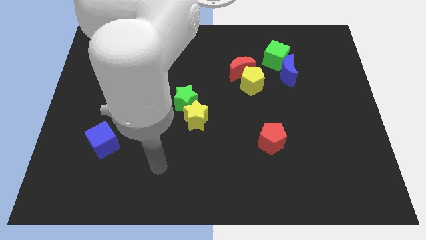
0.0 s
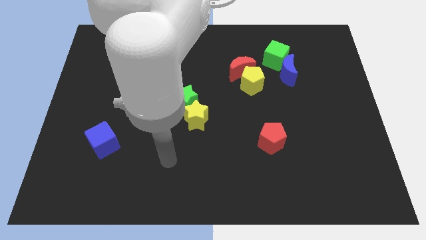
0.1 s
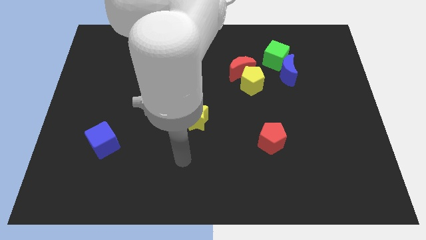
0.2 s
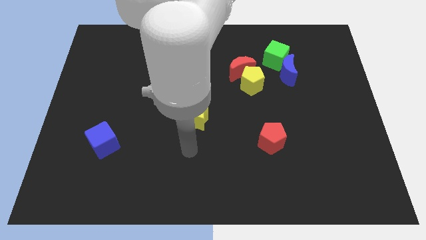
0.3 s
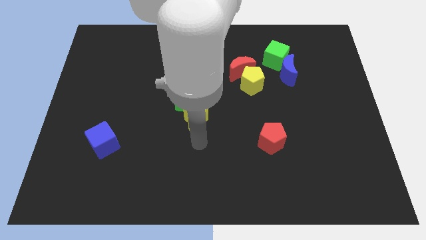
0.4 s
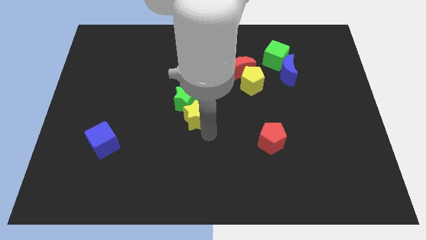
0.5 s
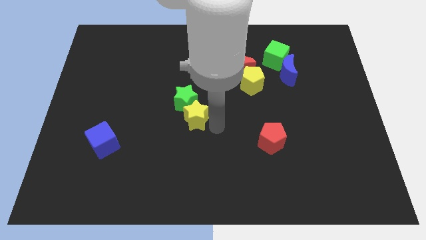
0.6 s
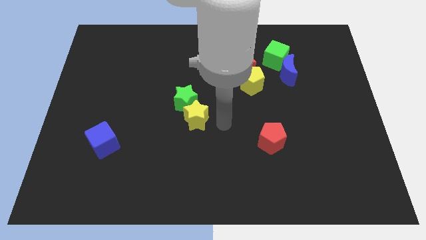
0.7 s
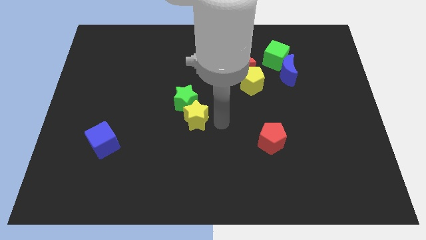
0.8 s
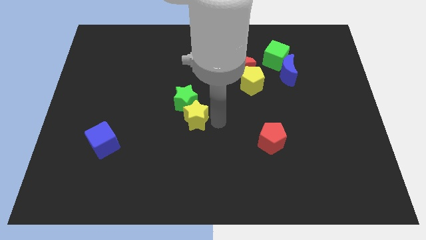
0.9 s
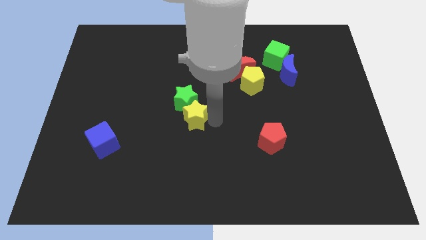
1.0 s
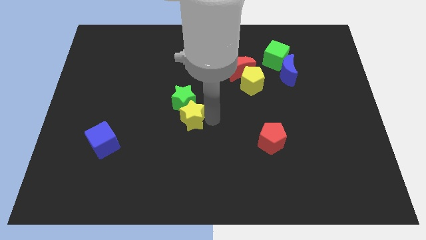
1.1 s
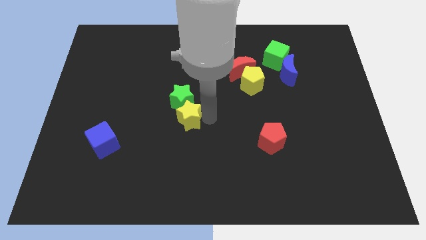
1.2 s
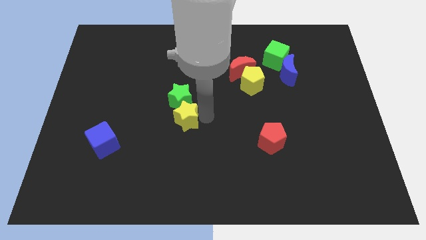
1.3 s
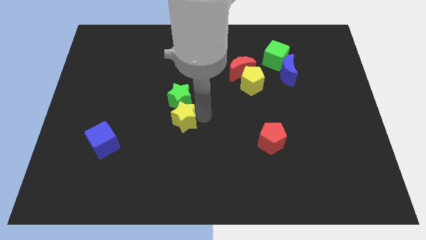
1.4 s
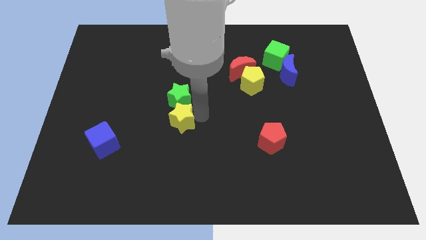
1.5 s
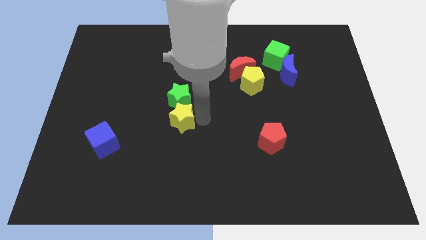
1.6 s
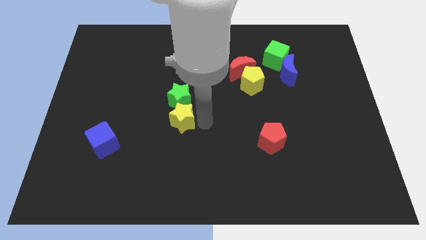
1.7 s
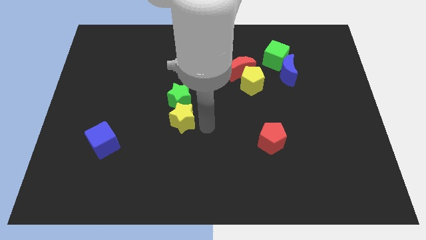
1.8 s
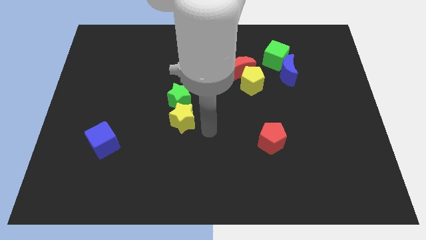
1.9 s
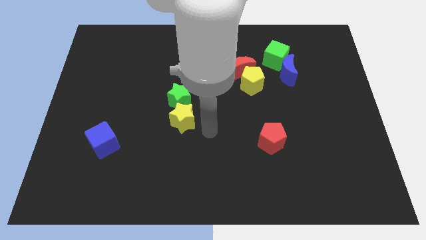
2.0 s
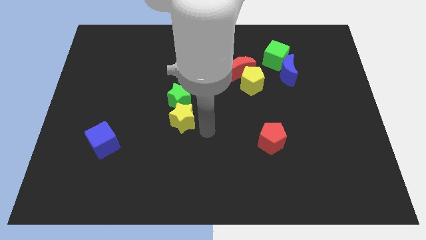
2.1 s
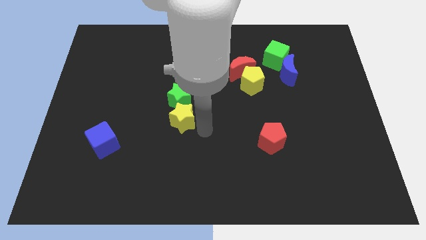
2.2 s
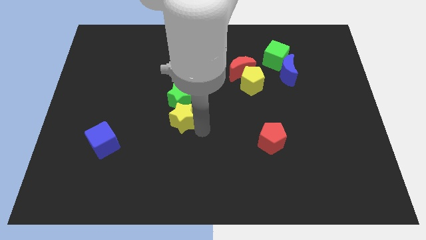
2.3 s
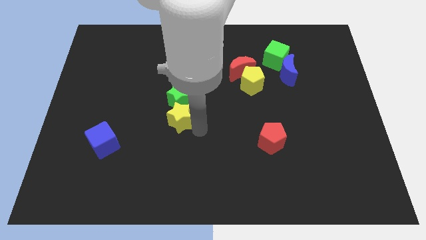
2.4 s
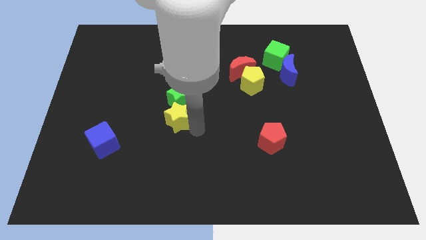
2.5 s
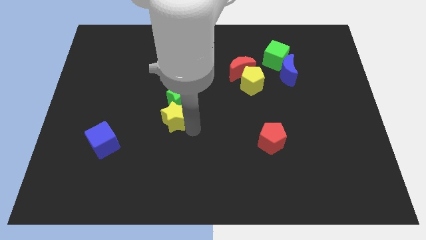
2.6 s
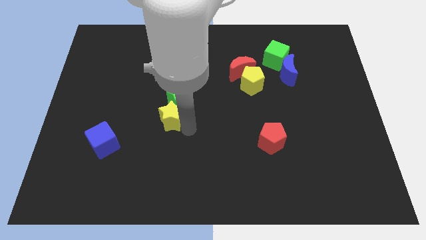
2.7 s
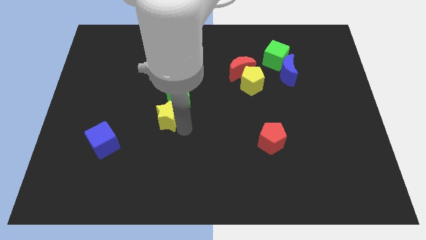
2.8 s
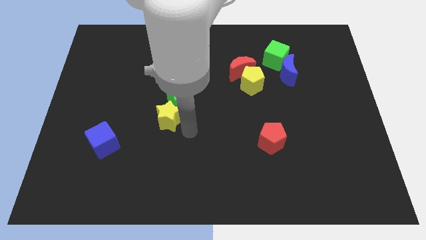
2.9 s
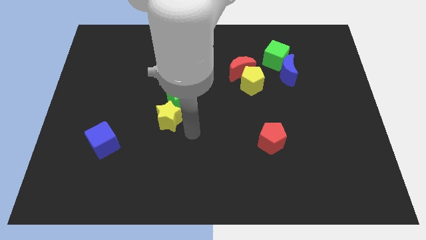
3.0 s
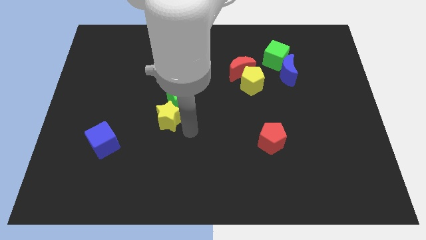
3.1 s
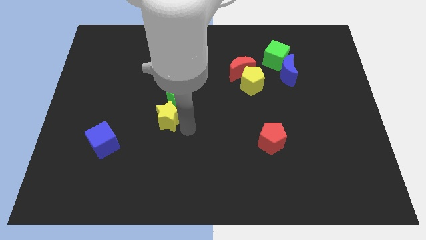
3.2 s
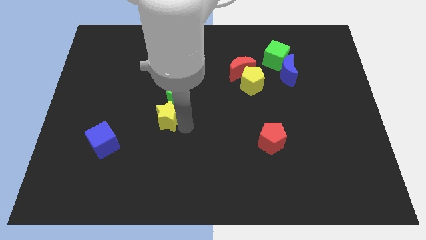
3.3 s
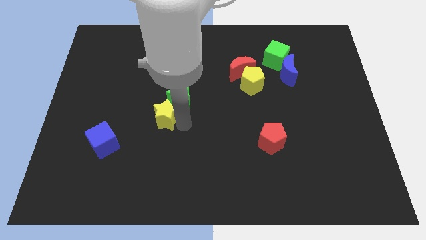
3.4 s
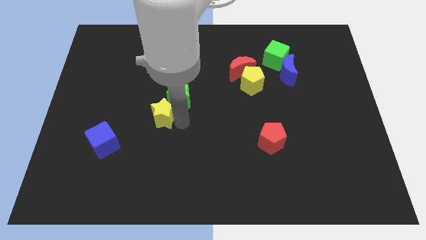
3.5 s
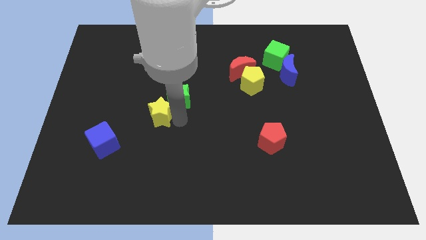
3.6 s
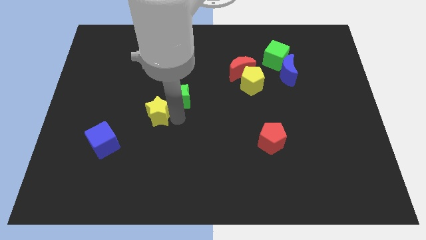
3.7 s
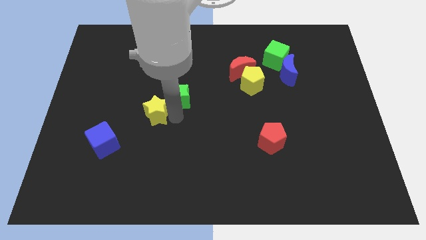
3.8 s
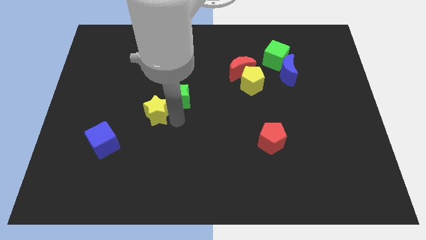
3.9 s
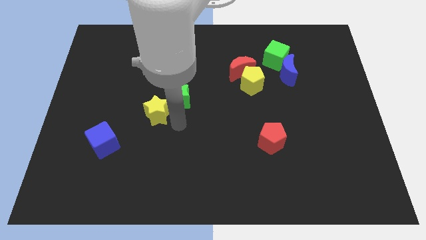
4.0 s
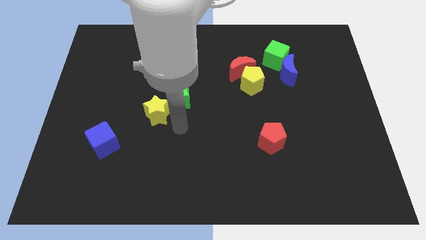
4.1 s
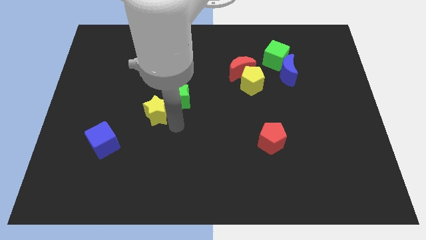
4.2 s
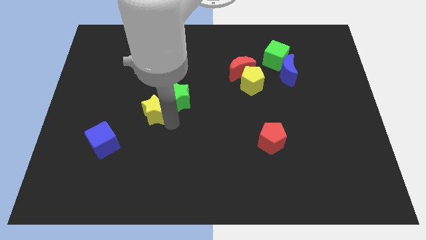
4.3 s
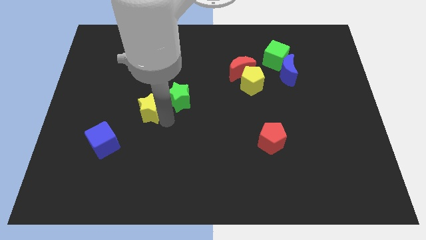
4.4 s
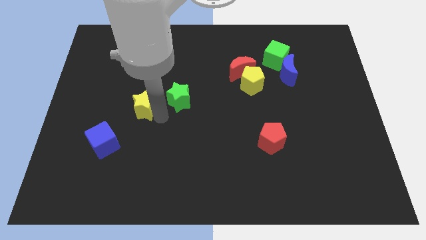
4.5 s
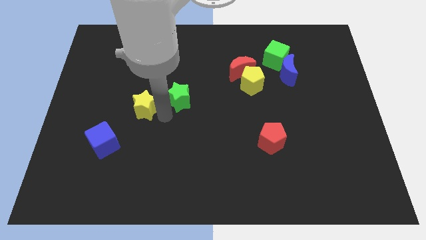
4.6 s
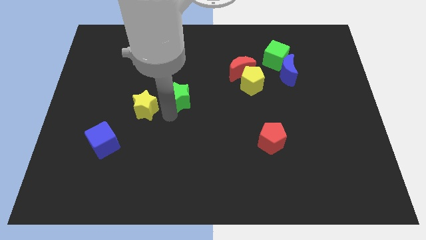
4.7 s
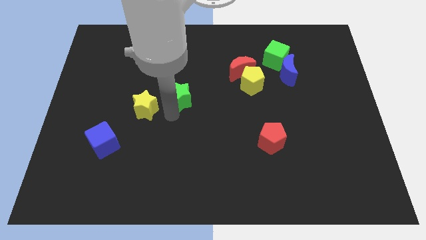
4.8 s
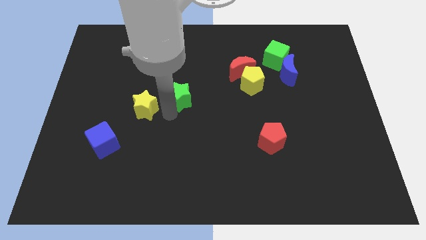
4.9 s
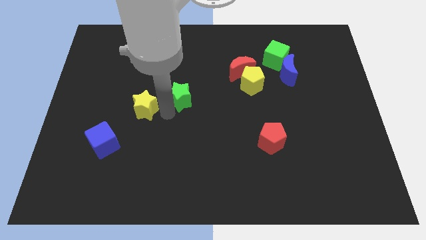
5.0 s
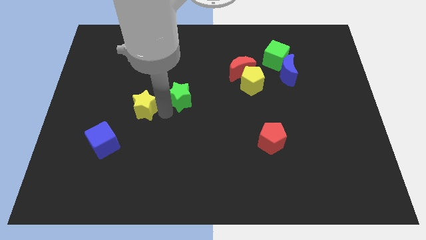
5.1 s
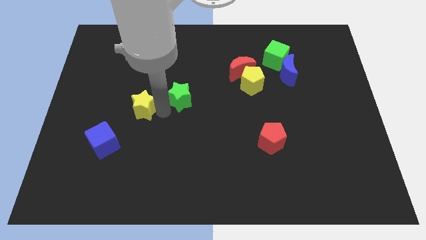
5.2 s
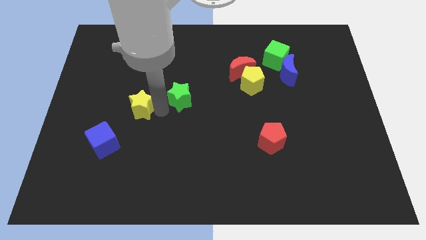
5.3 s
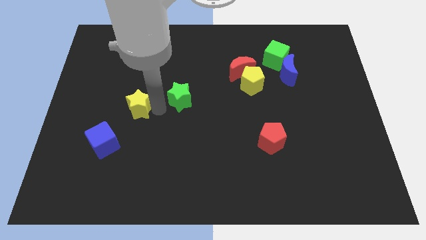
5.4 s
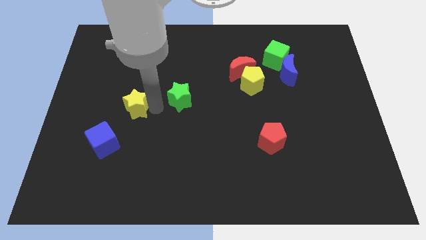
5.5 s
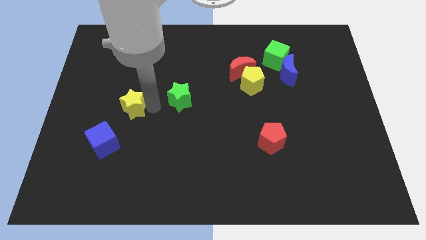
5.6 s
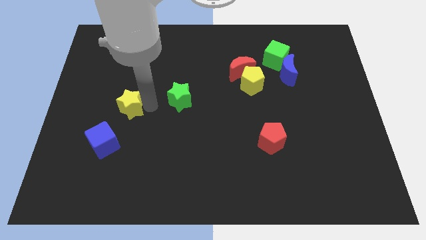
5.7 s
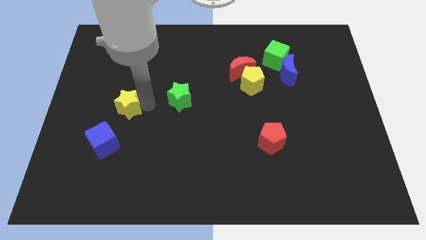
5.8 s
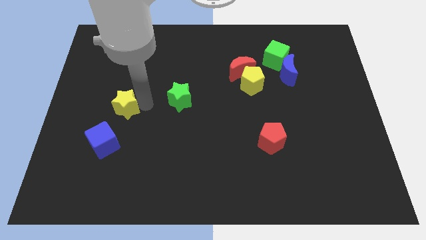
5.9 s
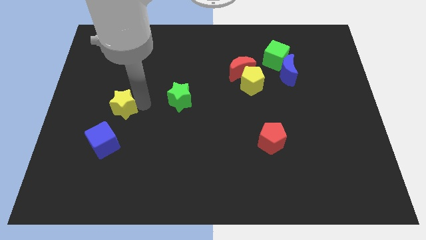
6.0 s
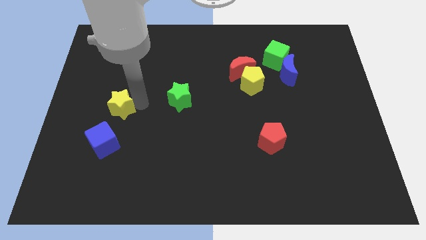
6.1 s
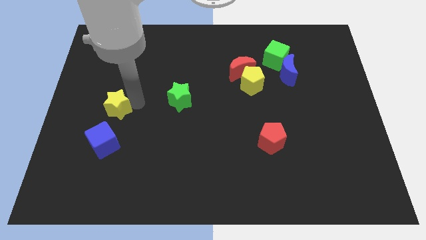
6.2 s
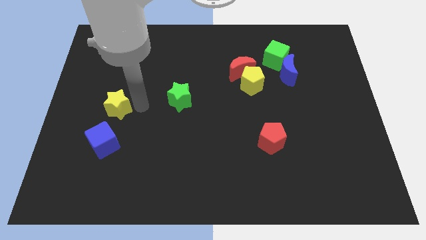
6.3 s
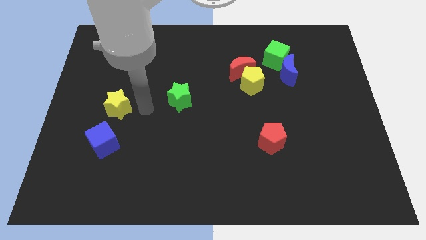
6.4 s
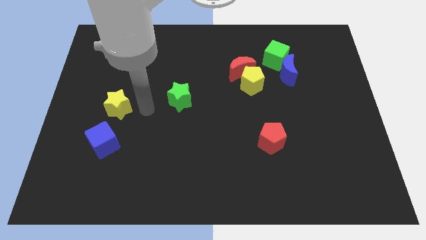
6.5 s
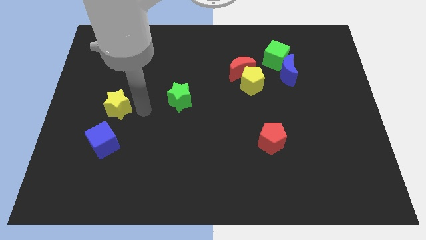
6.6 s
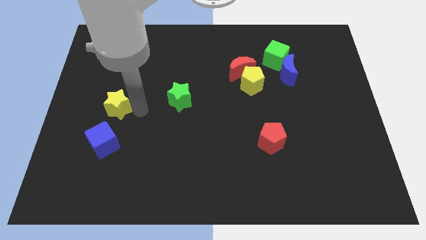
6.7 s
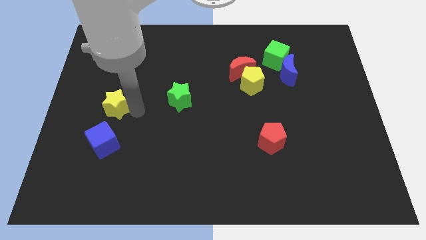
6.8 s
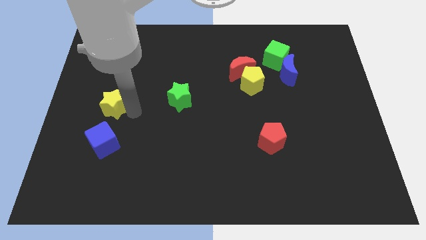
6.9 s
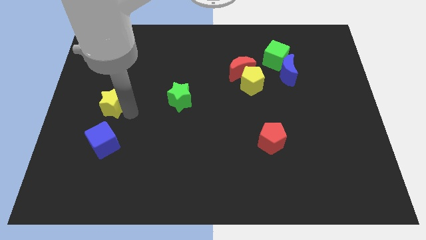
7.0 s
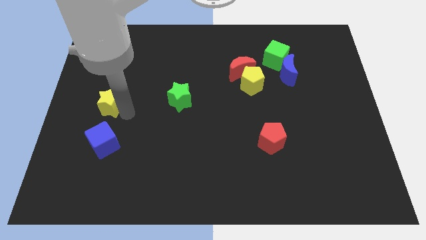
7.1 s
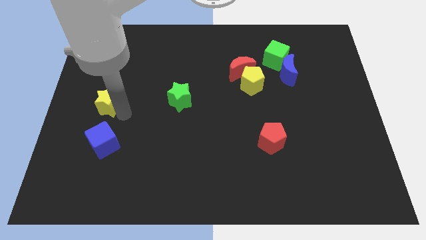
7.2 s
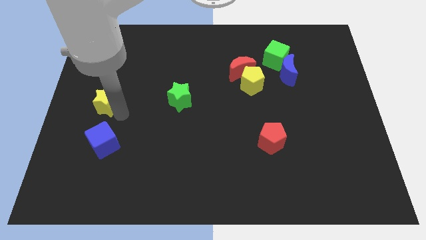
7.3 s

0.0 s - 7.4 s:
slide the yellow star to the left side of the board

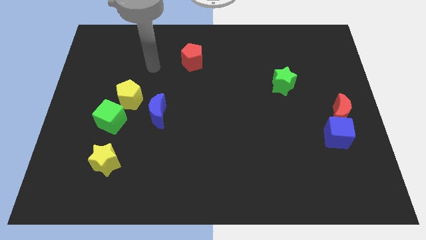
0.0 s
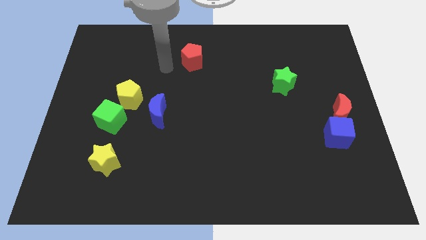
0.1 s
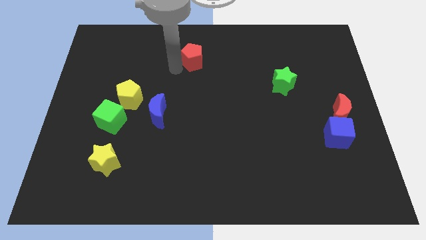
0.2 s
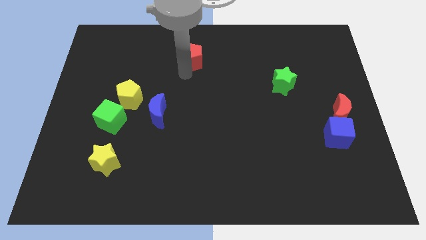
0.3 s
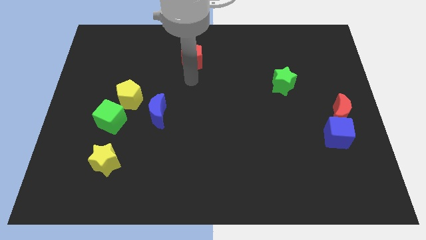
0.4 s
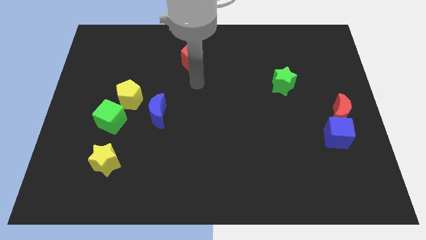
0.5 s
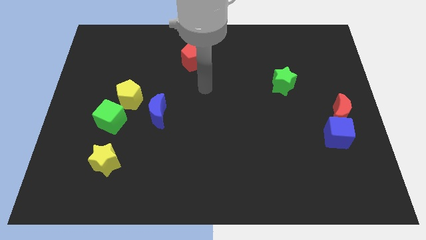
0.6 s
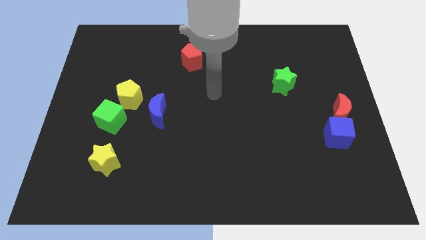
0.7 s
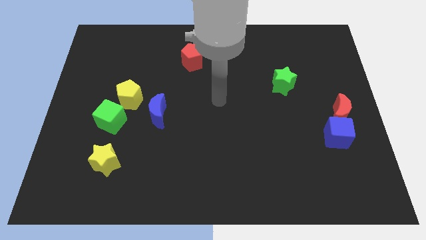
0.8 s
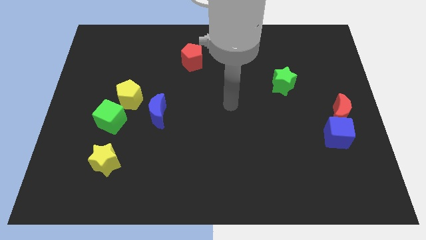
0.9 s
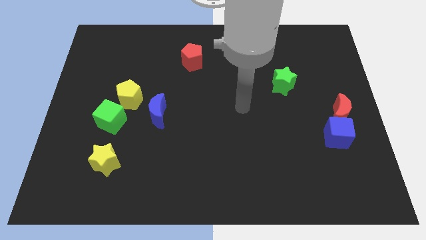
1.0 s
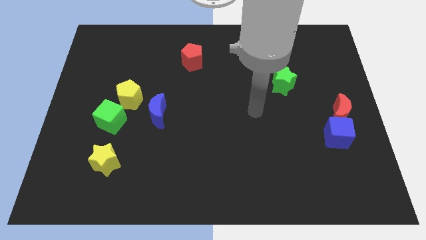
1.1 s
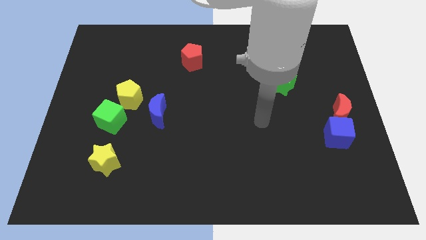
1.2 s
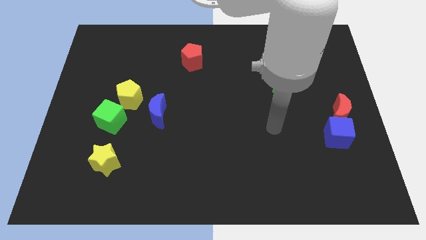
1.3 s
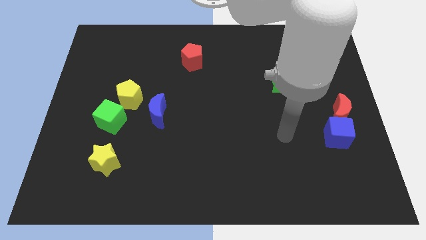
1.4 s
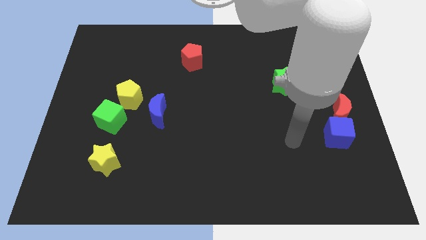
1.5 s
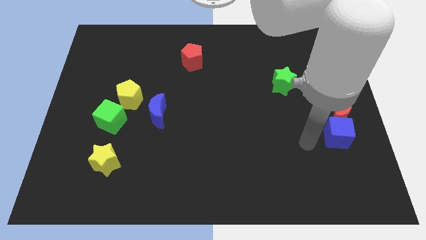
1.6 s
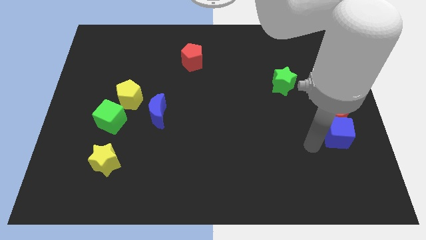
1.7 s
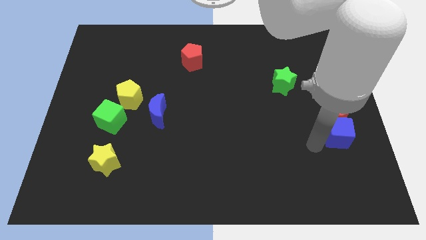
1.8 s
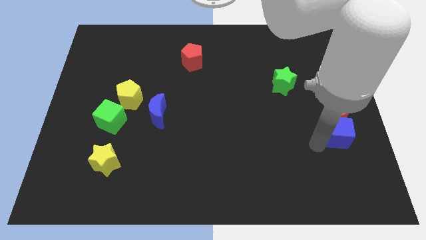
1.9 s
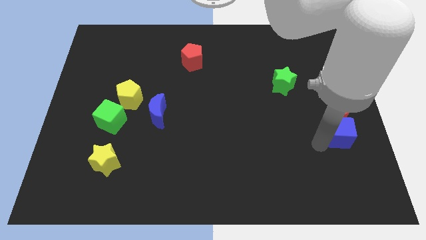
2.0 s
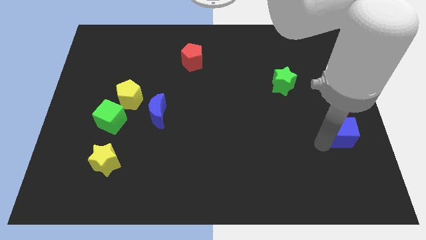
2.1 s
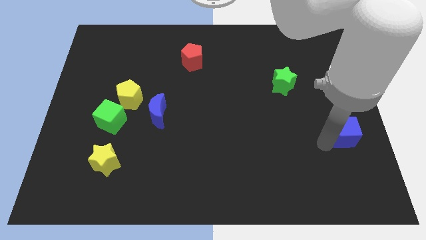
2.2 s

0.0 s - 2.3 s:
put the blue cube to the center right
